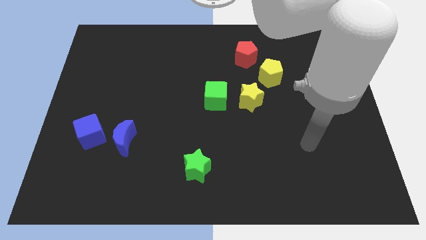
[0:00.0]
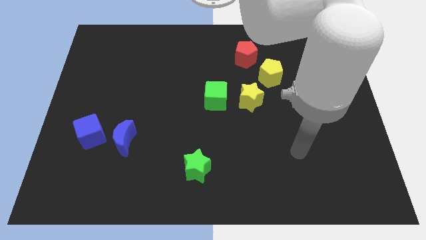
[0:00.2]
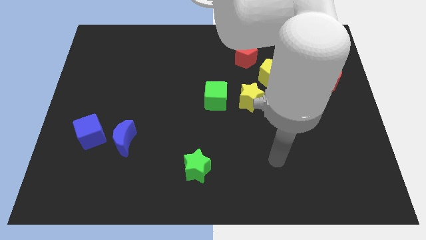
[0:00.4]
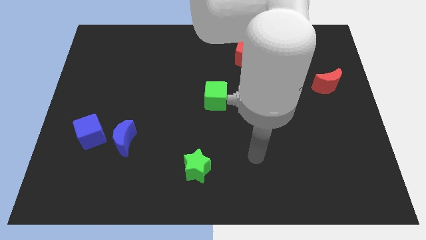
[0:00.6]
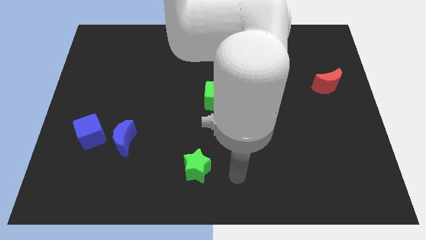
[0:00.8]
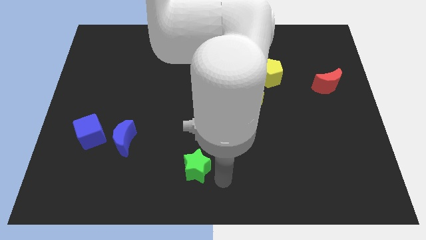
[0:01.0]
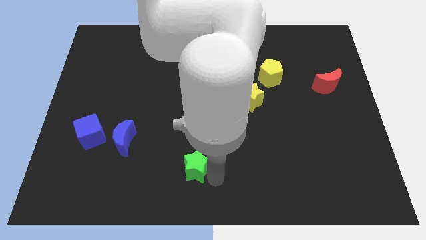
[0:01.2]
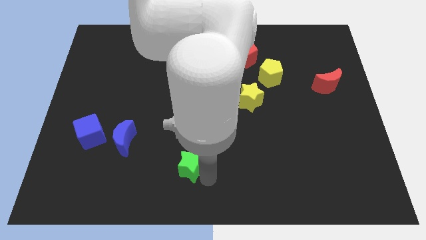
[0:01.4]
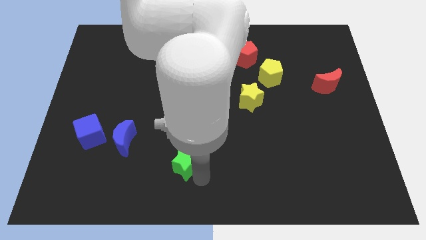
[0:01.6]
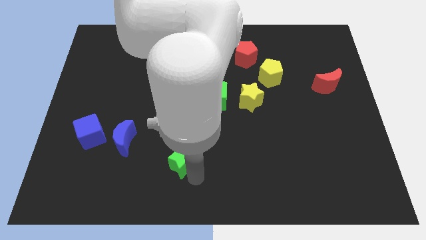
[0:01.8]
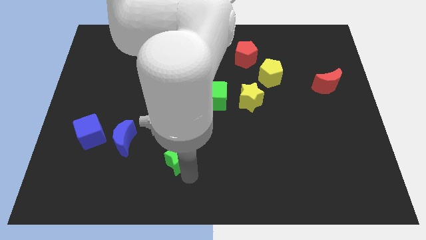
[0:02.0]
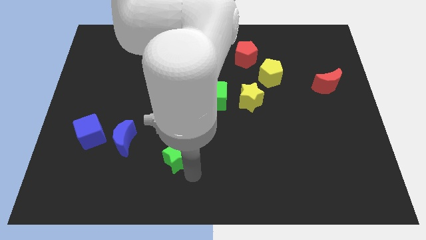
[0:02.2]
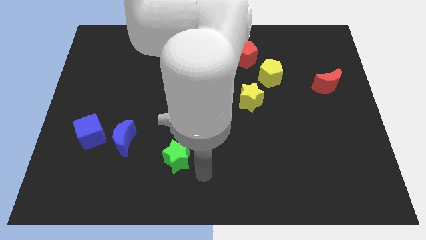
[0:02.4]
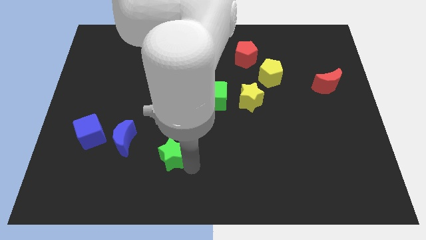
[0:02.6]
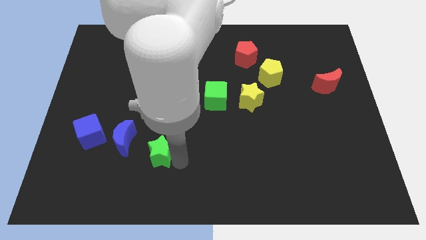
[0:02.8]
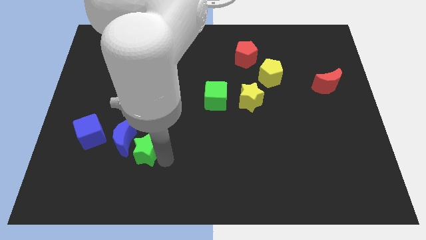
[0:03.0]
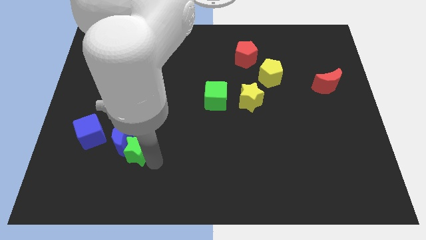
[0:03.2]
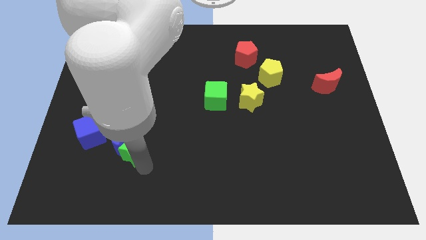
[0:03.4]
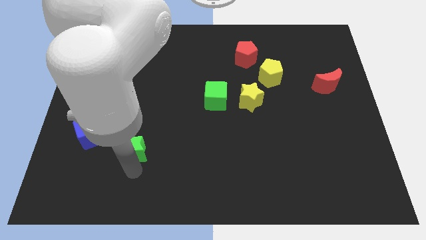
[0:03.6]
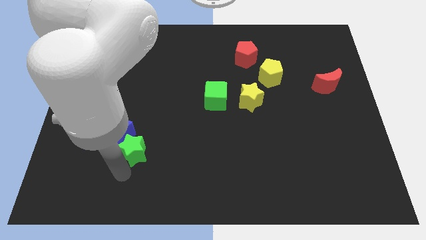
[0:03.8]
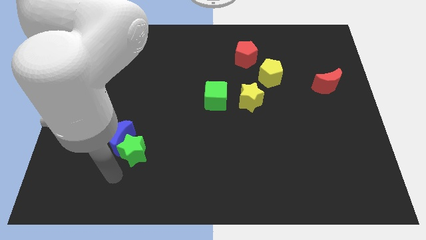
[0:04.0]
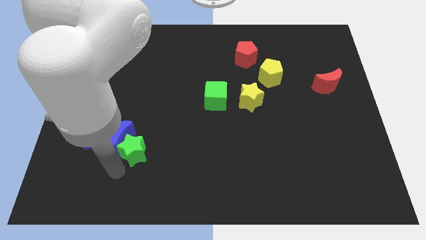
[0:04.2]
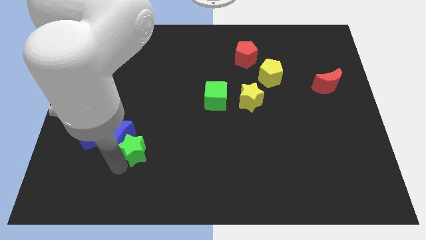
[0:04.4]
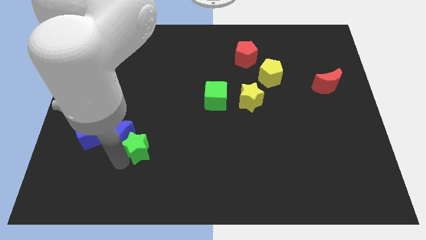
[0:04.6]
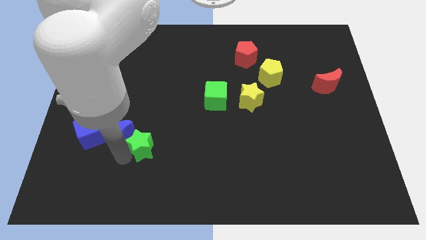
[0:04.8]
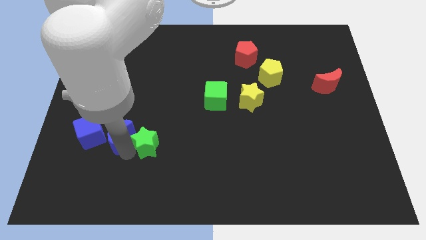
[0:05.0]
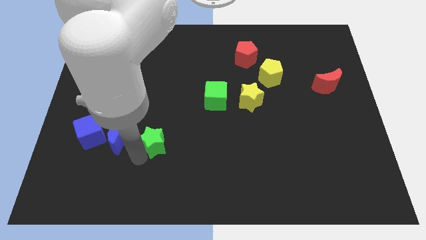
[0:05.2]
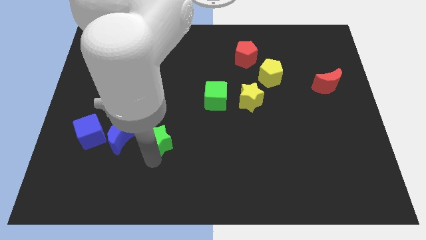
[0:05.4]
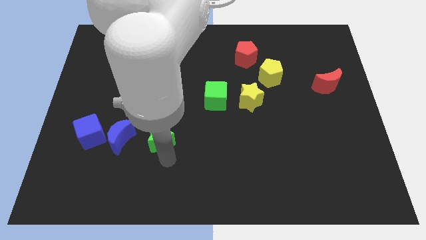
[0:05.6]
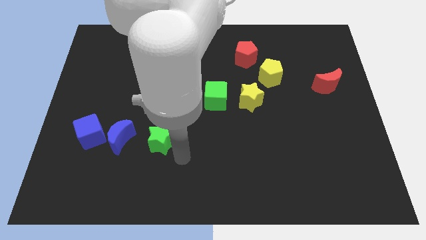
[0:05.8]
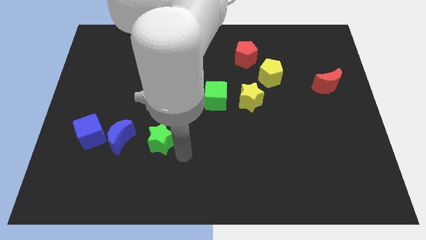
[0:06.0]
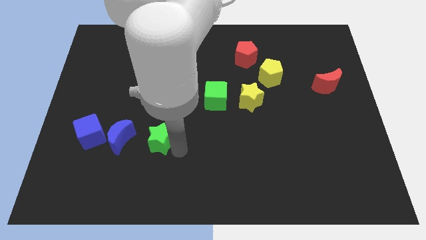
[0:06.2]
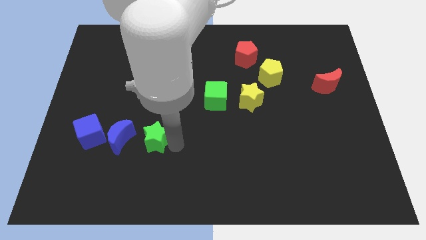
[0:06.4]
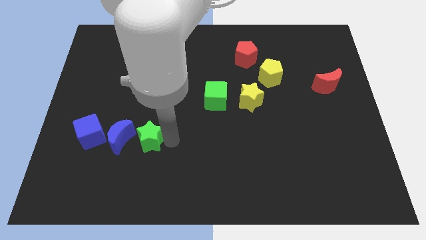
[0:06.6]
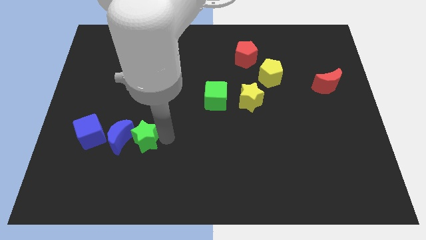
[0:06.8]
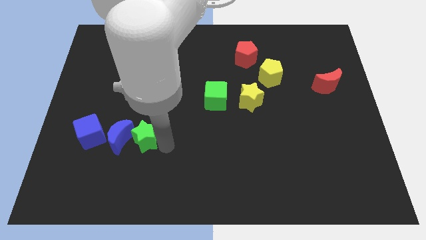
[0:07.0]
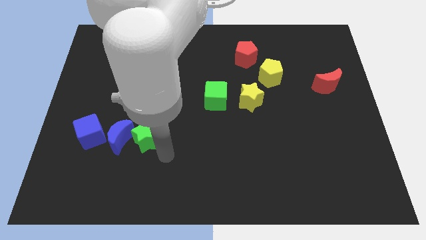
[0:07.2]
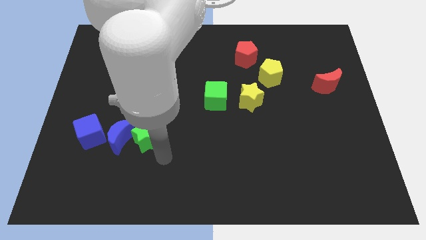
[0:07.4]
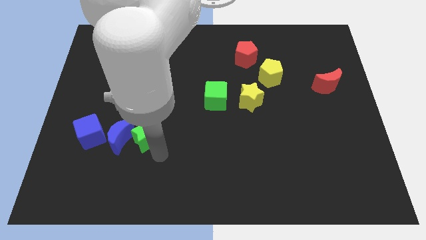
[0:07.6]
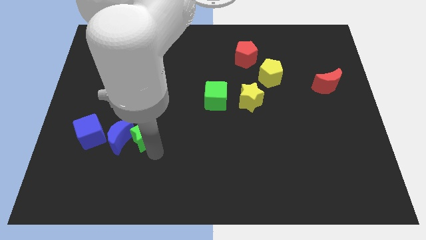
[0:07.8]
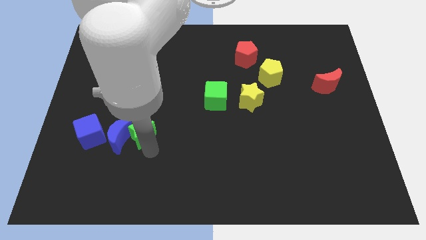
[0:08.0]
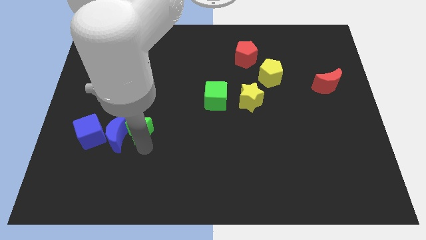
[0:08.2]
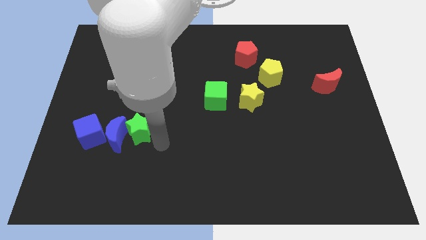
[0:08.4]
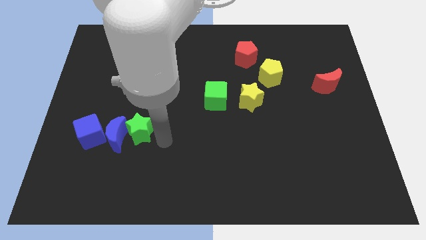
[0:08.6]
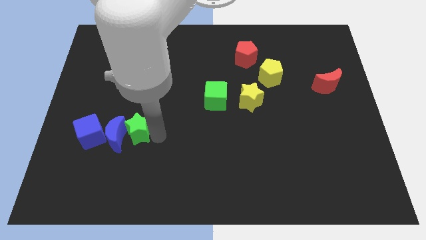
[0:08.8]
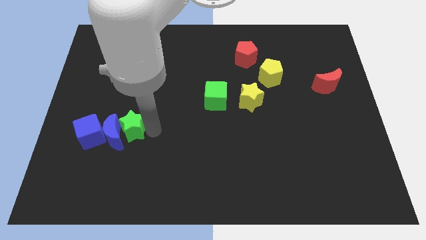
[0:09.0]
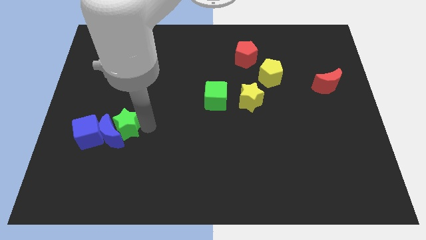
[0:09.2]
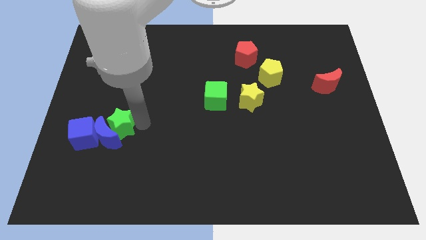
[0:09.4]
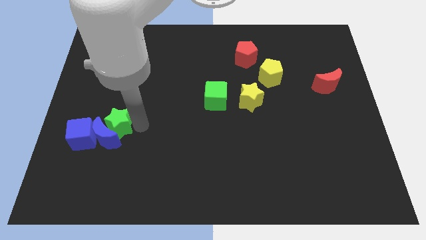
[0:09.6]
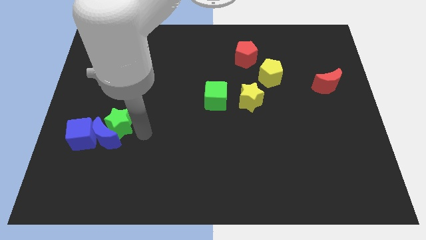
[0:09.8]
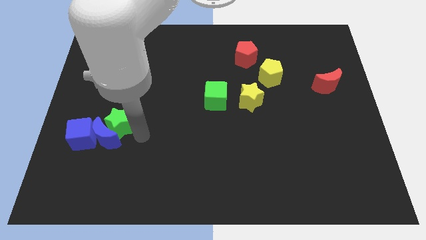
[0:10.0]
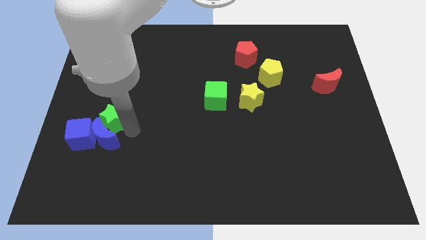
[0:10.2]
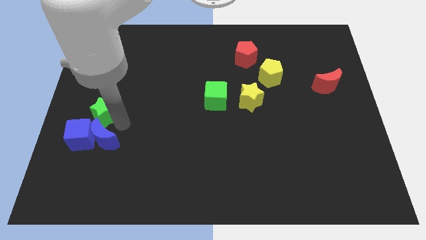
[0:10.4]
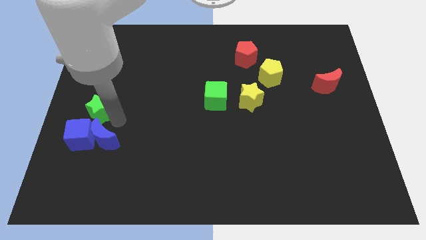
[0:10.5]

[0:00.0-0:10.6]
move the green star to the left side of the board
